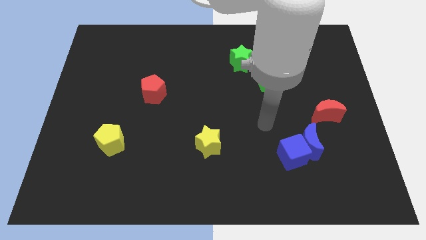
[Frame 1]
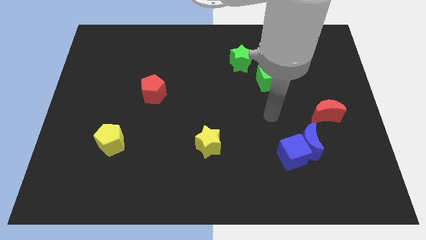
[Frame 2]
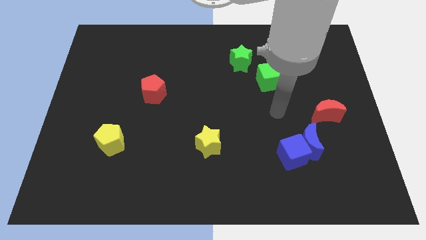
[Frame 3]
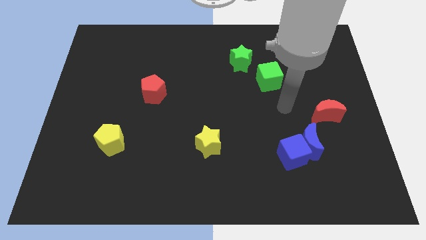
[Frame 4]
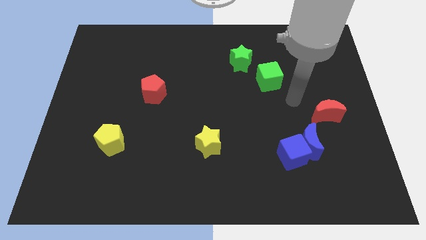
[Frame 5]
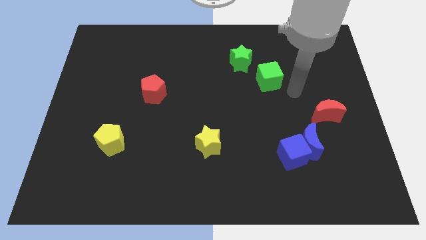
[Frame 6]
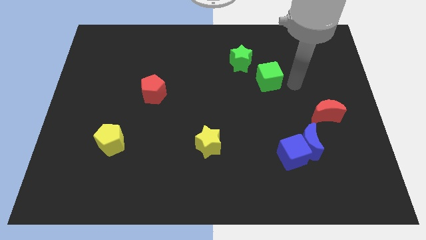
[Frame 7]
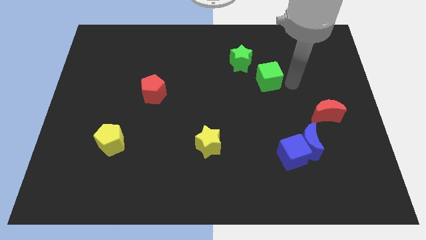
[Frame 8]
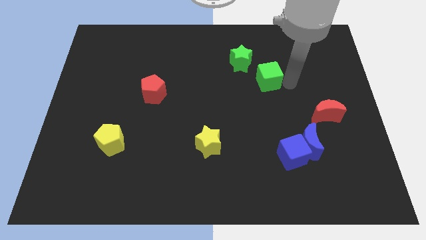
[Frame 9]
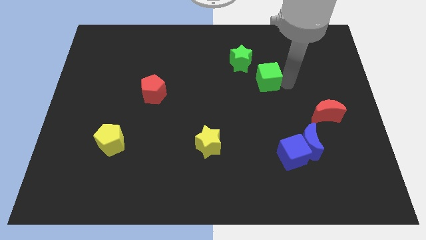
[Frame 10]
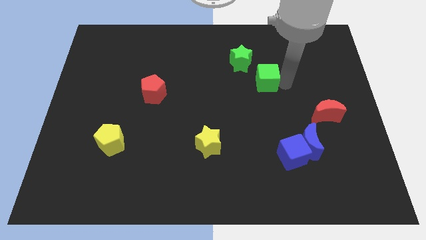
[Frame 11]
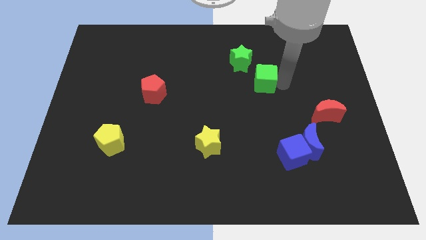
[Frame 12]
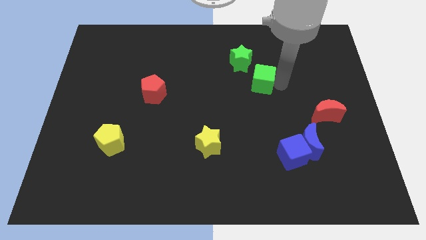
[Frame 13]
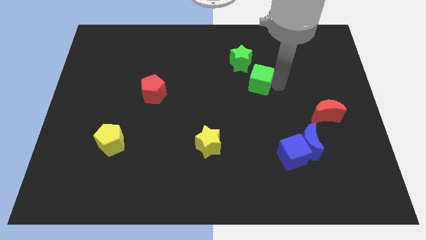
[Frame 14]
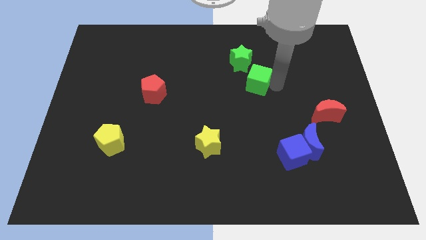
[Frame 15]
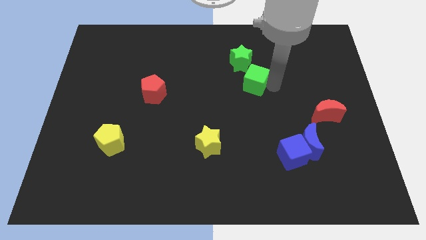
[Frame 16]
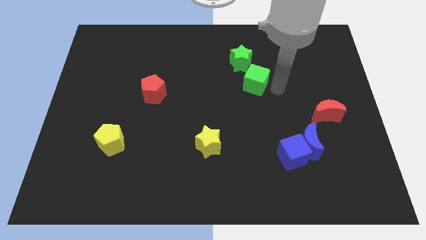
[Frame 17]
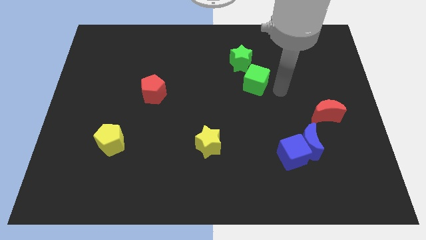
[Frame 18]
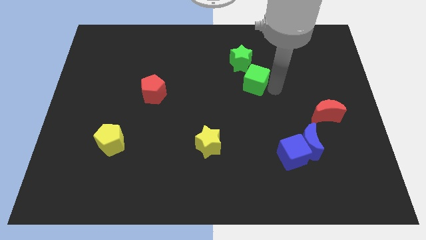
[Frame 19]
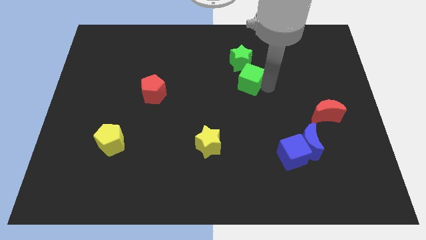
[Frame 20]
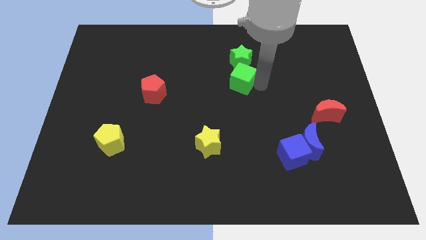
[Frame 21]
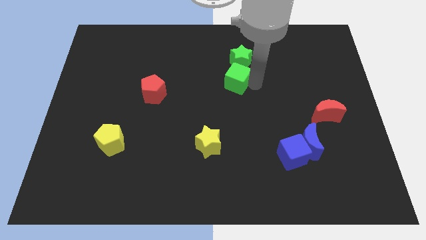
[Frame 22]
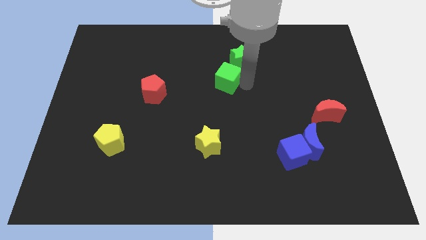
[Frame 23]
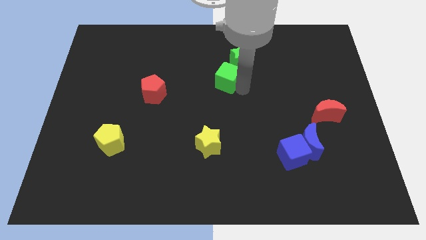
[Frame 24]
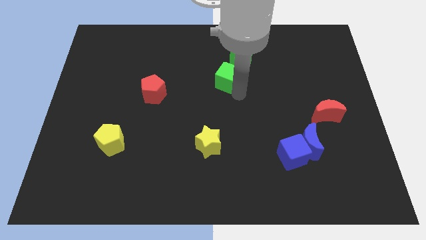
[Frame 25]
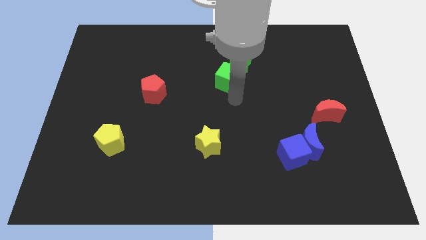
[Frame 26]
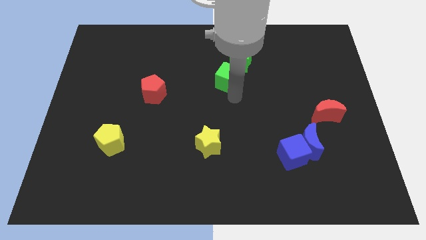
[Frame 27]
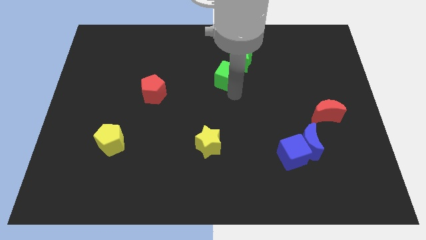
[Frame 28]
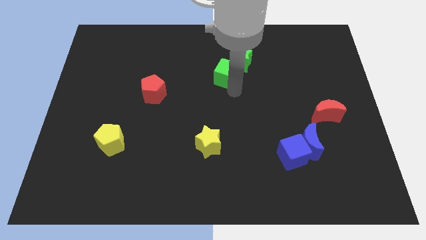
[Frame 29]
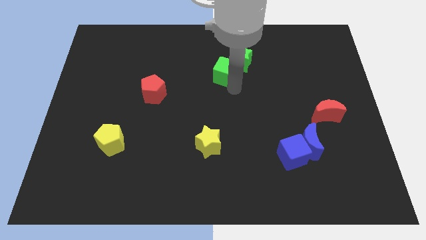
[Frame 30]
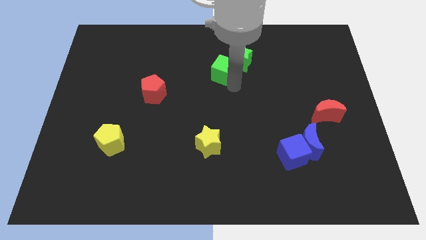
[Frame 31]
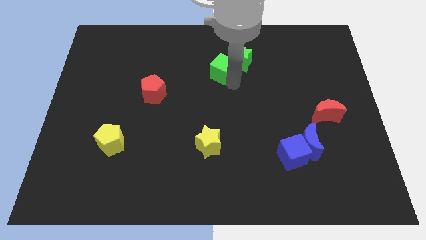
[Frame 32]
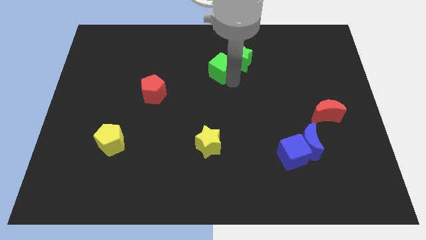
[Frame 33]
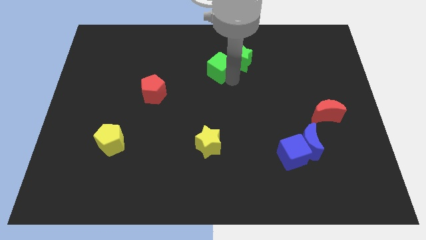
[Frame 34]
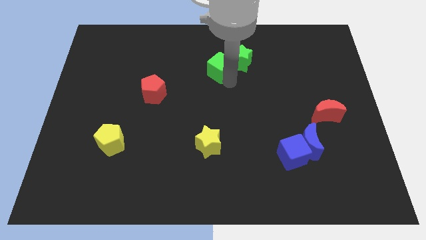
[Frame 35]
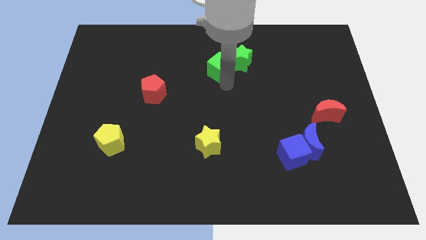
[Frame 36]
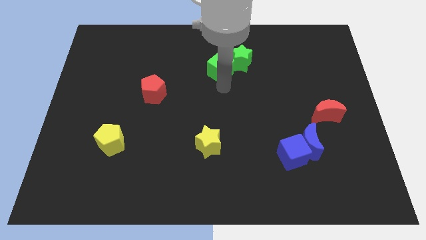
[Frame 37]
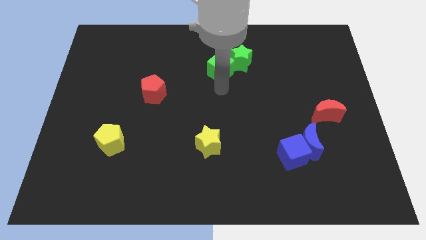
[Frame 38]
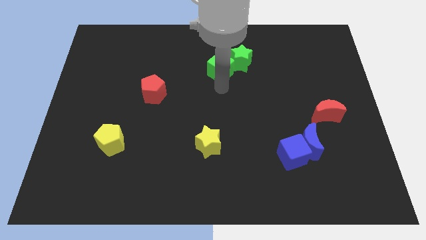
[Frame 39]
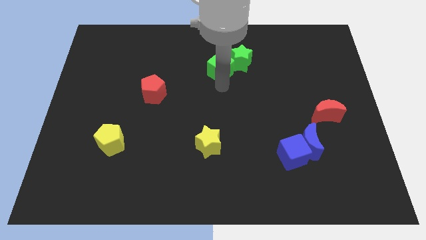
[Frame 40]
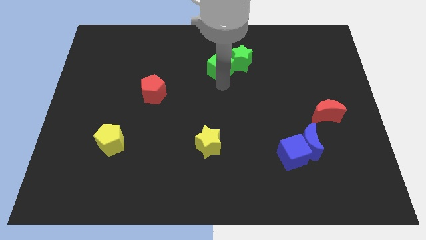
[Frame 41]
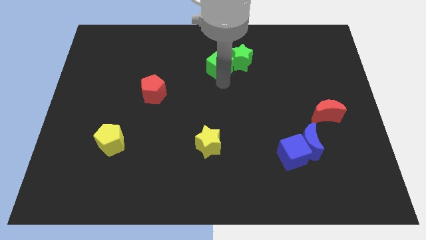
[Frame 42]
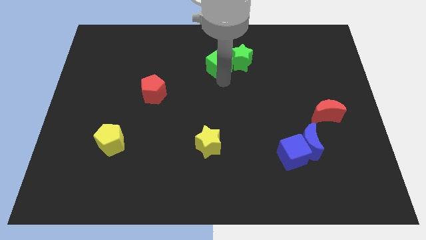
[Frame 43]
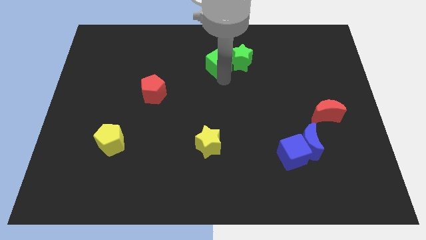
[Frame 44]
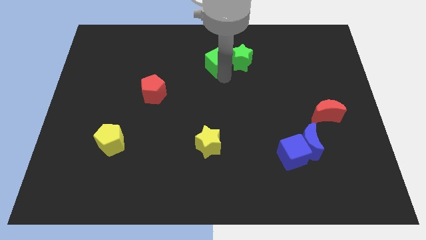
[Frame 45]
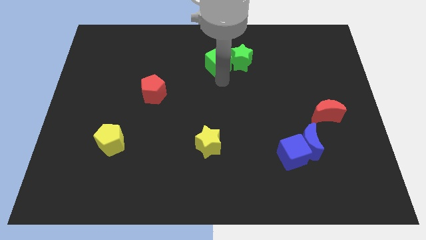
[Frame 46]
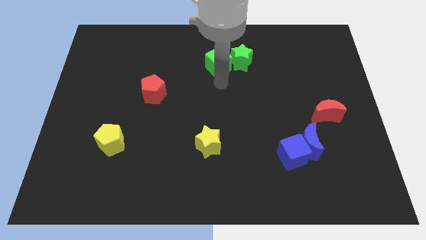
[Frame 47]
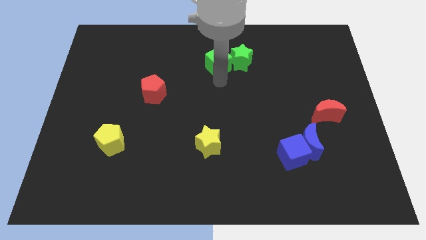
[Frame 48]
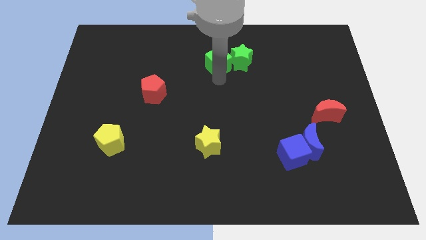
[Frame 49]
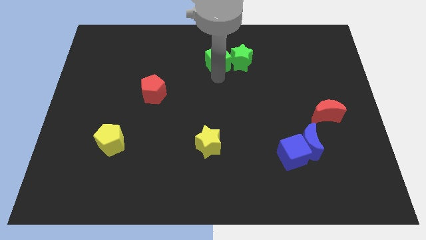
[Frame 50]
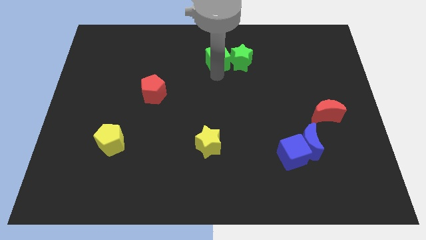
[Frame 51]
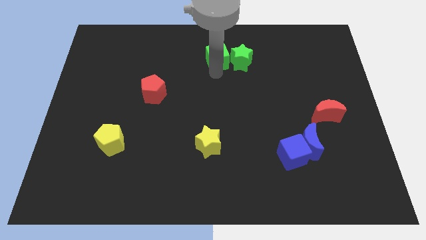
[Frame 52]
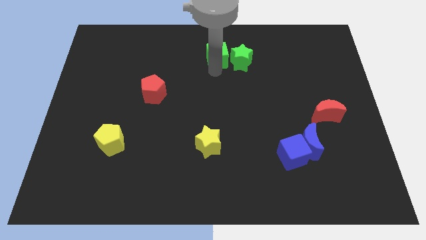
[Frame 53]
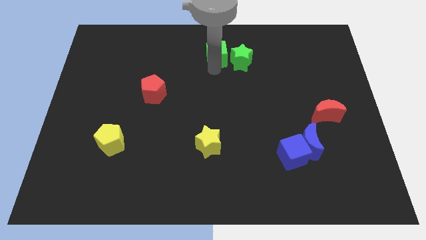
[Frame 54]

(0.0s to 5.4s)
put the green cube to the top side

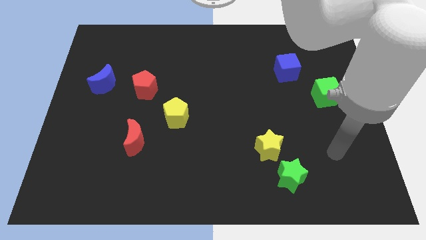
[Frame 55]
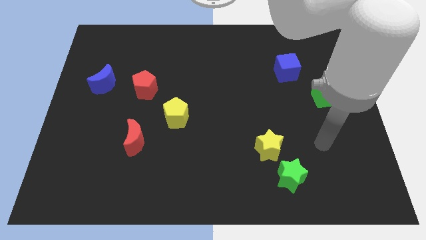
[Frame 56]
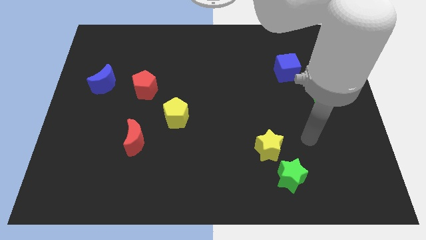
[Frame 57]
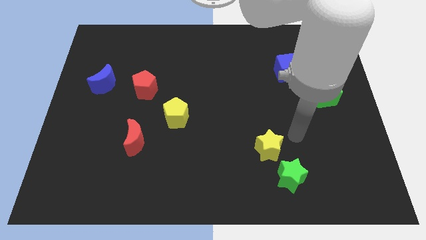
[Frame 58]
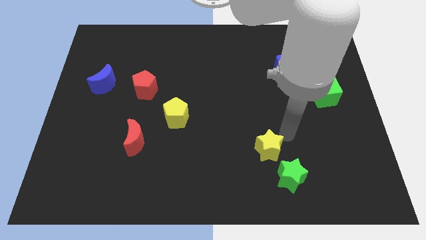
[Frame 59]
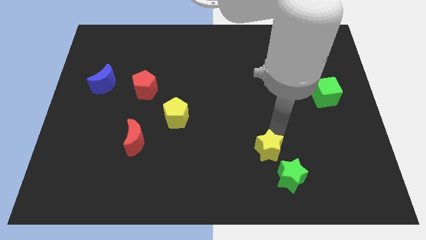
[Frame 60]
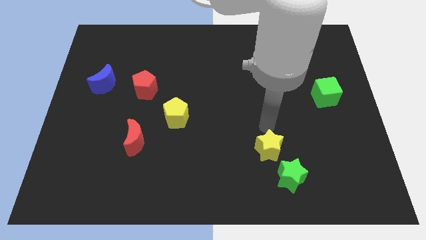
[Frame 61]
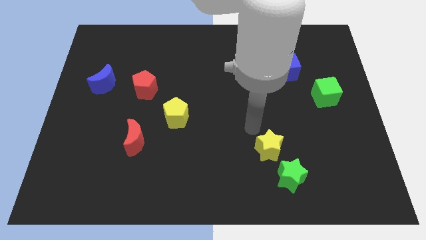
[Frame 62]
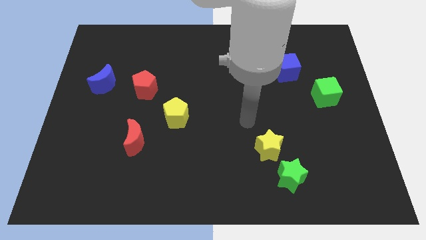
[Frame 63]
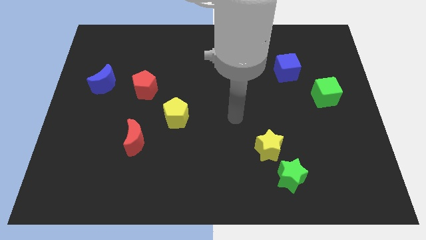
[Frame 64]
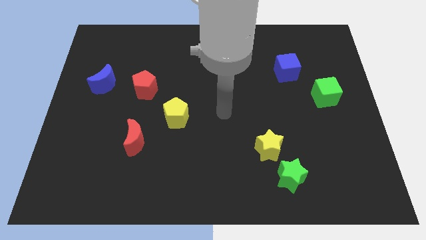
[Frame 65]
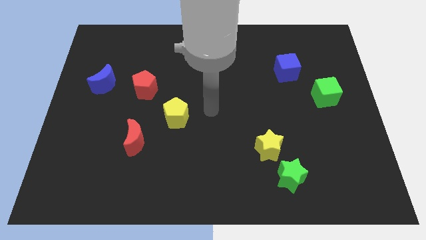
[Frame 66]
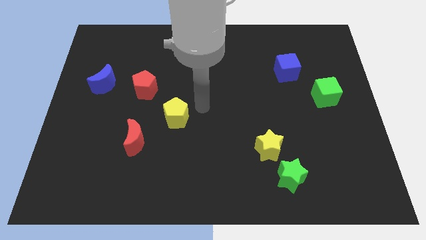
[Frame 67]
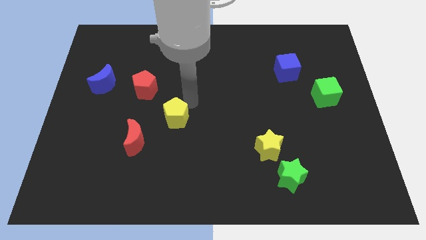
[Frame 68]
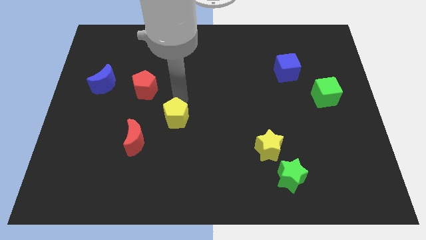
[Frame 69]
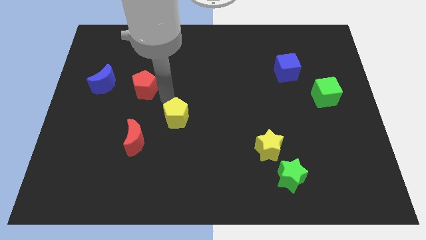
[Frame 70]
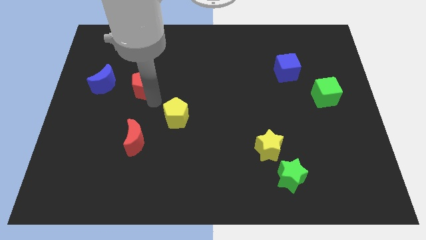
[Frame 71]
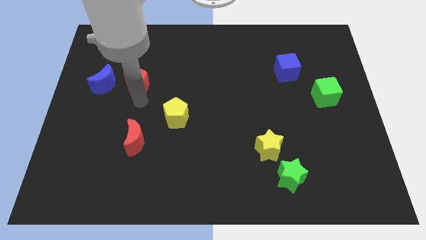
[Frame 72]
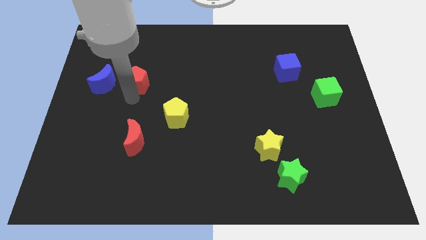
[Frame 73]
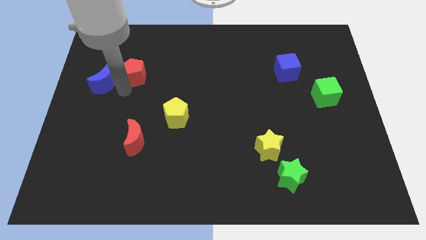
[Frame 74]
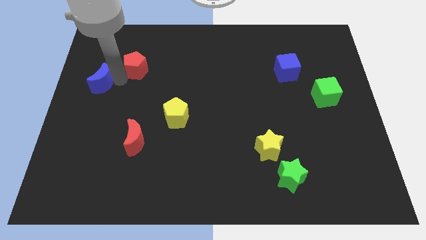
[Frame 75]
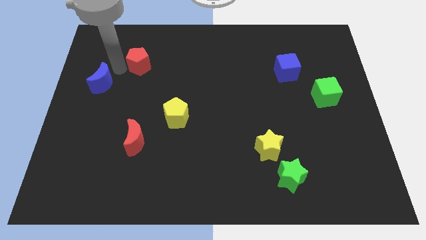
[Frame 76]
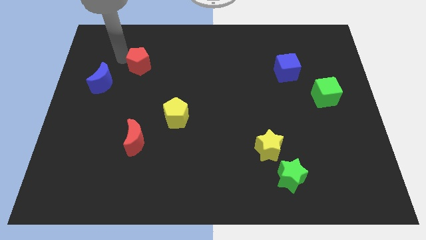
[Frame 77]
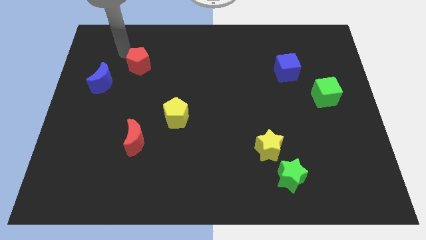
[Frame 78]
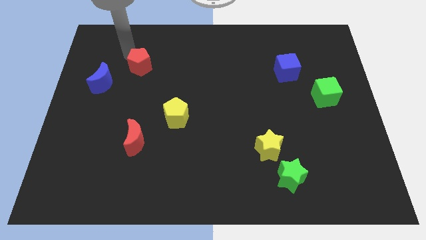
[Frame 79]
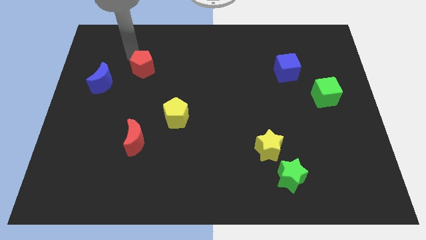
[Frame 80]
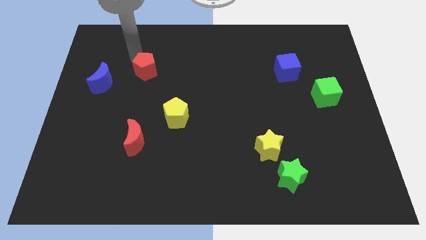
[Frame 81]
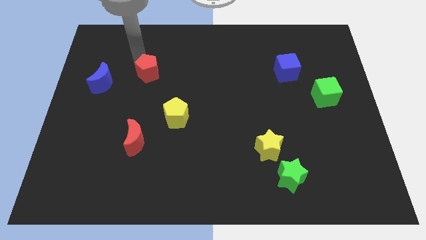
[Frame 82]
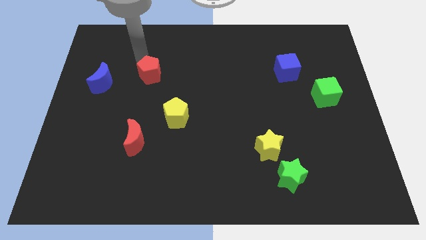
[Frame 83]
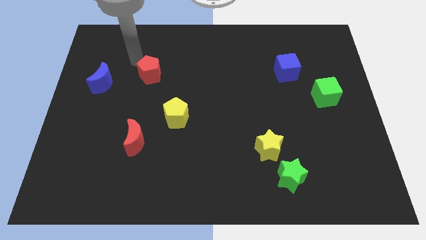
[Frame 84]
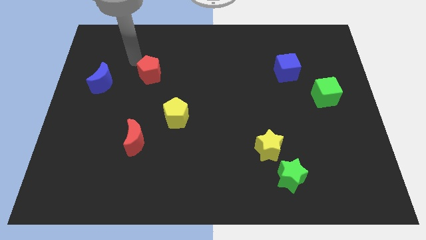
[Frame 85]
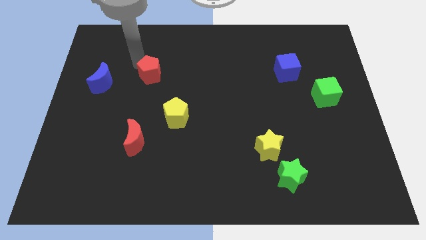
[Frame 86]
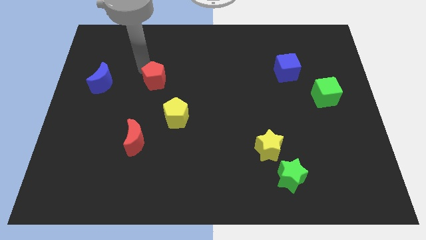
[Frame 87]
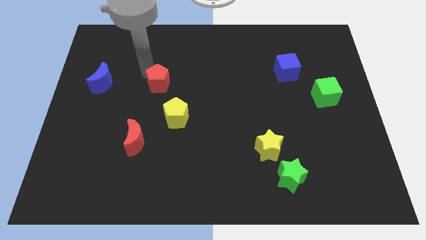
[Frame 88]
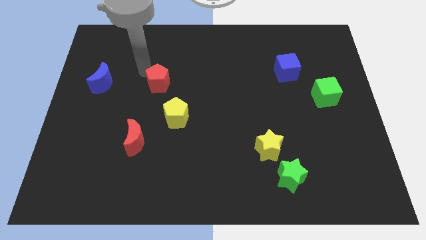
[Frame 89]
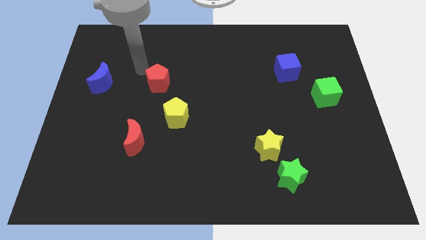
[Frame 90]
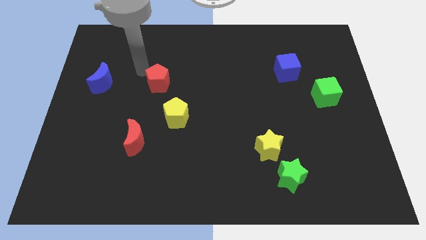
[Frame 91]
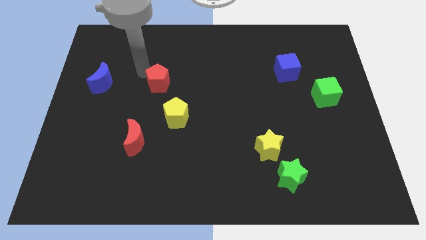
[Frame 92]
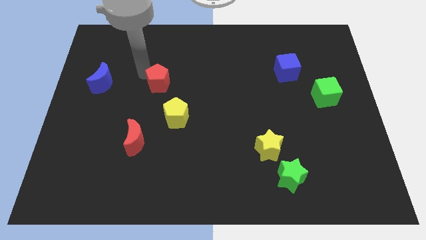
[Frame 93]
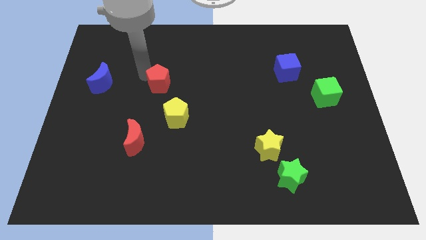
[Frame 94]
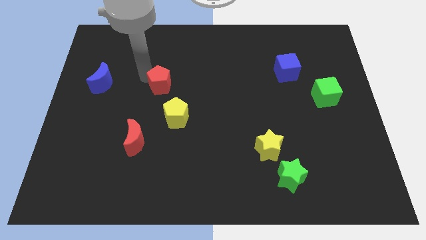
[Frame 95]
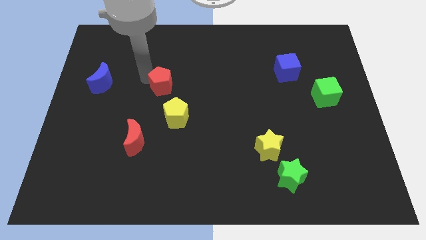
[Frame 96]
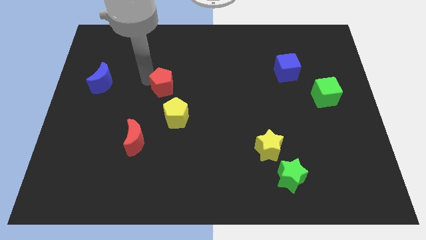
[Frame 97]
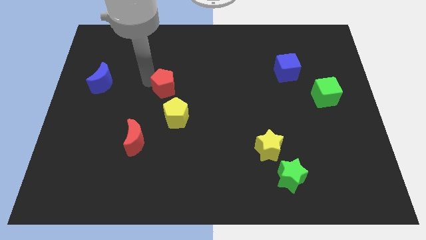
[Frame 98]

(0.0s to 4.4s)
move the red pentagon to the center of the board
